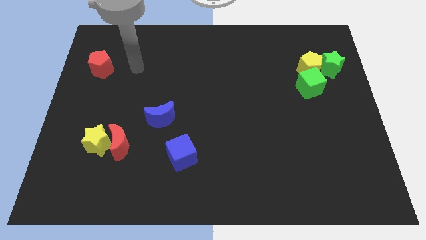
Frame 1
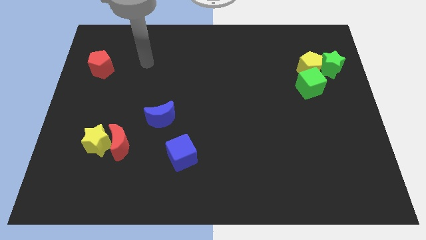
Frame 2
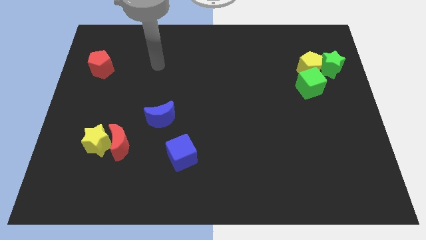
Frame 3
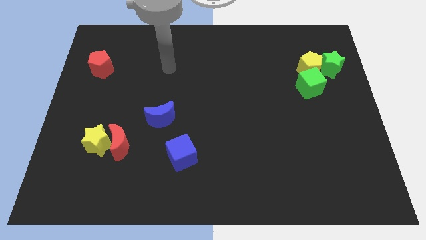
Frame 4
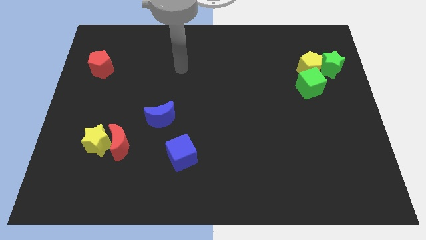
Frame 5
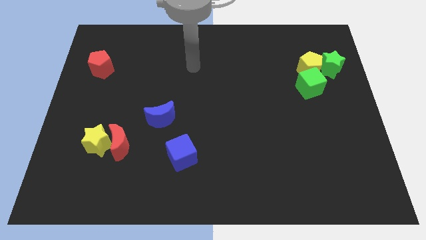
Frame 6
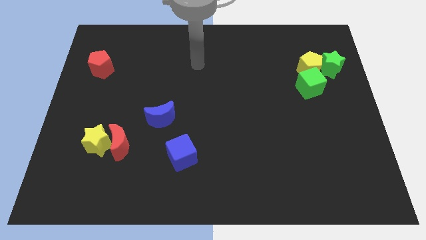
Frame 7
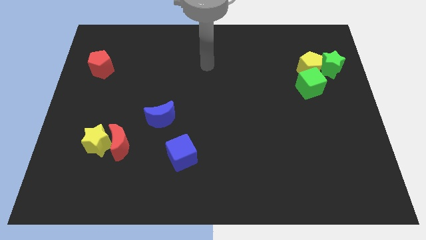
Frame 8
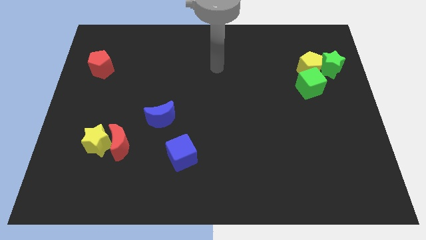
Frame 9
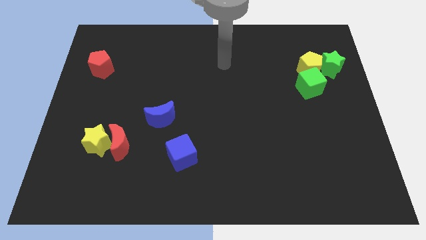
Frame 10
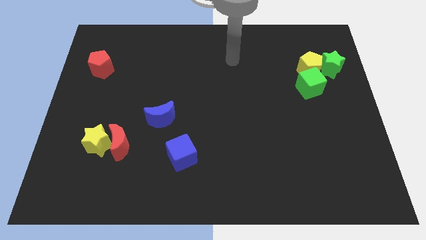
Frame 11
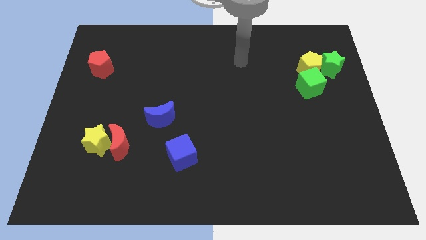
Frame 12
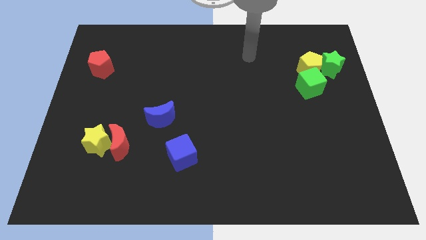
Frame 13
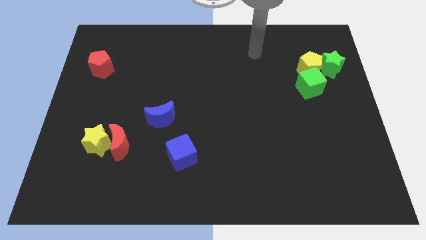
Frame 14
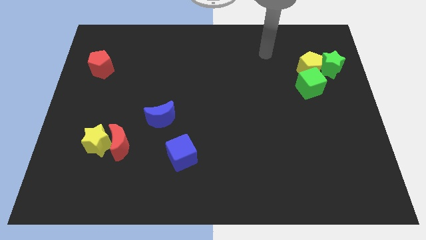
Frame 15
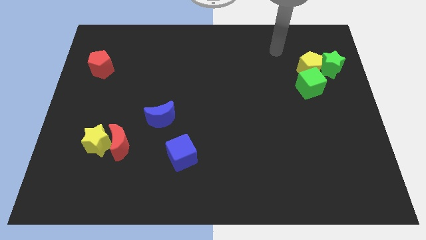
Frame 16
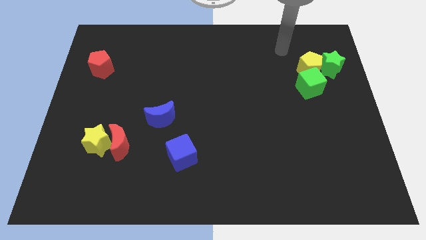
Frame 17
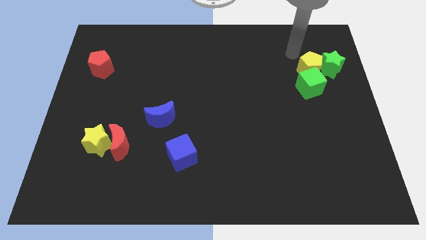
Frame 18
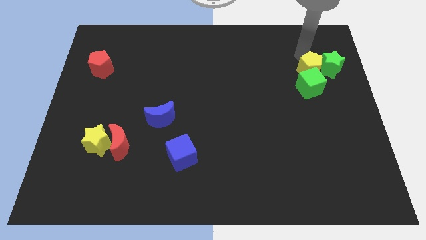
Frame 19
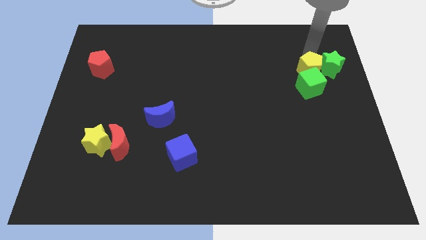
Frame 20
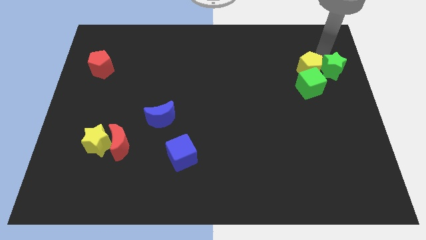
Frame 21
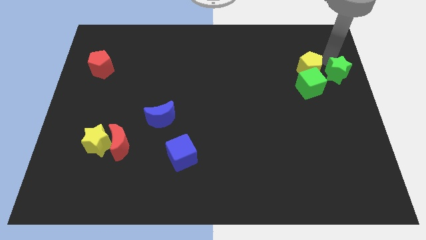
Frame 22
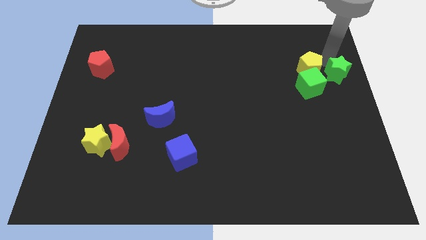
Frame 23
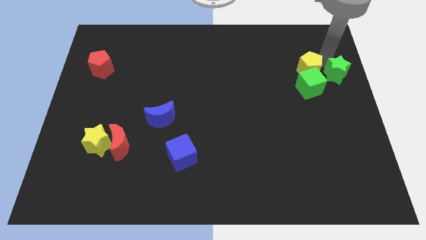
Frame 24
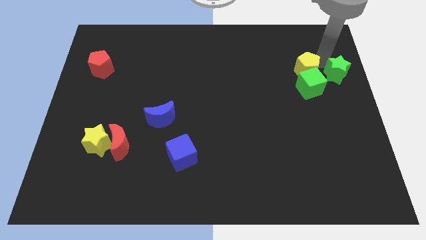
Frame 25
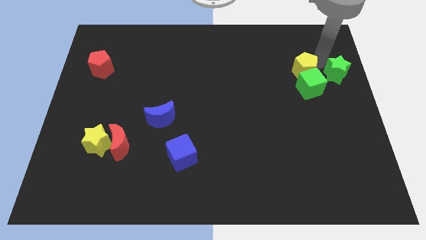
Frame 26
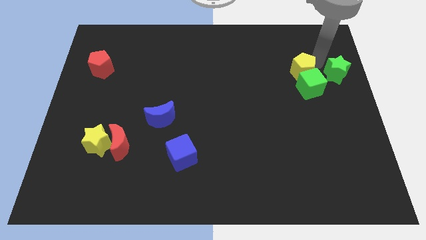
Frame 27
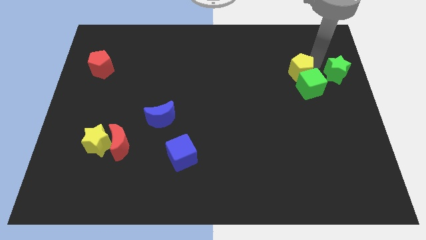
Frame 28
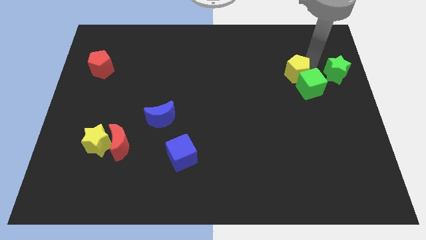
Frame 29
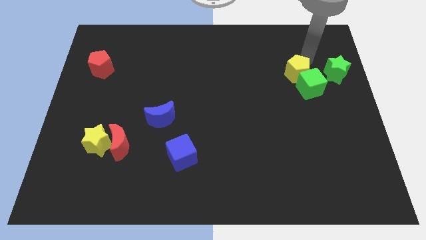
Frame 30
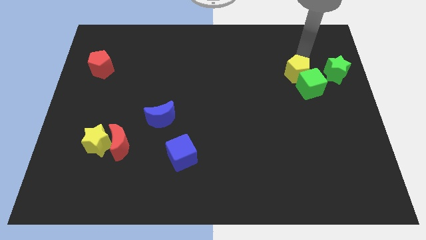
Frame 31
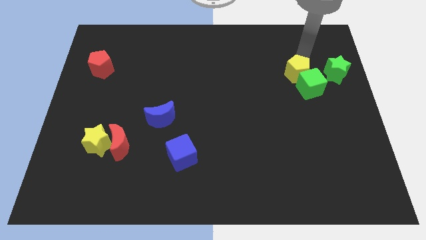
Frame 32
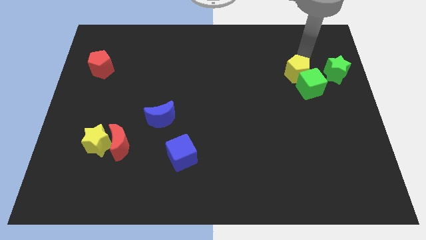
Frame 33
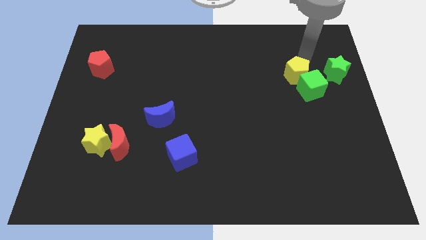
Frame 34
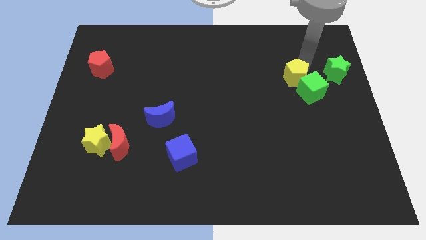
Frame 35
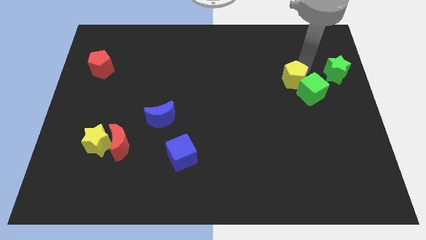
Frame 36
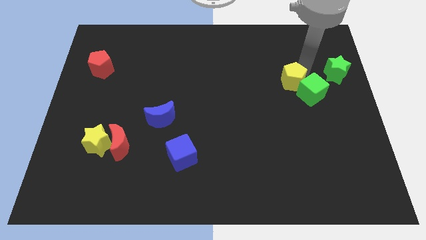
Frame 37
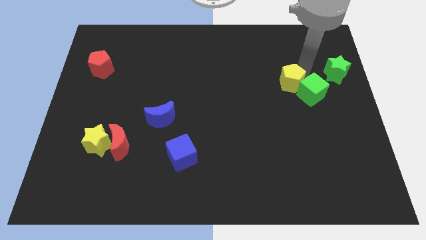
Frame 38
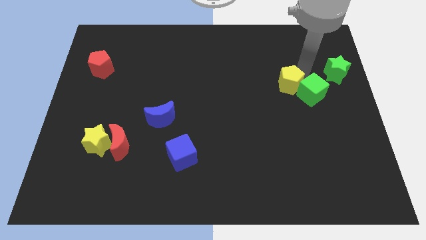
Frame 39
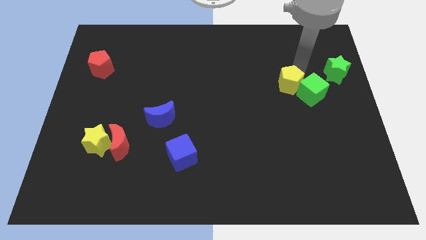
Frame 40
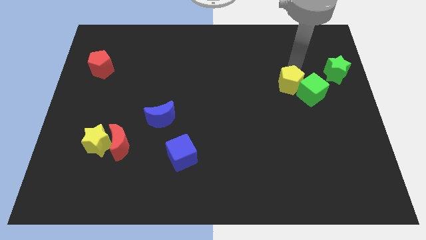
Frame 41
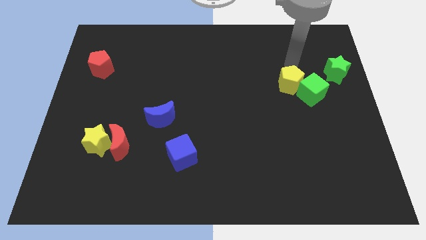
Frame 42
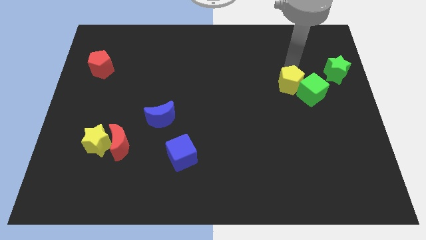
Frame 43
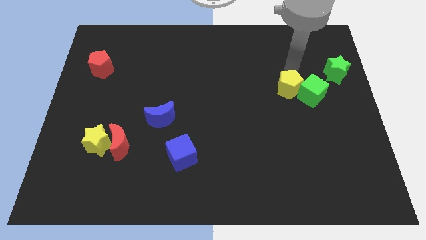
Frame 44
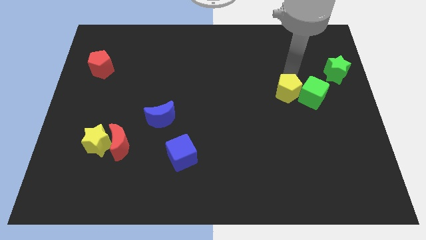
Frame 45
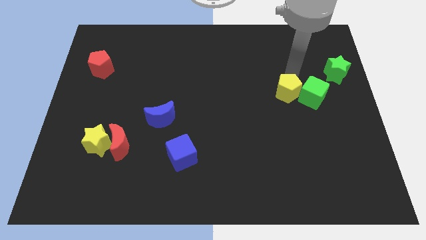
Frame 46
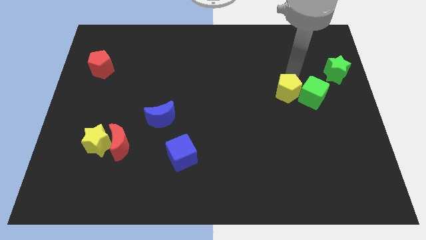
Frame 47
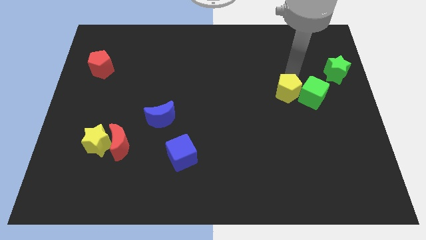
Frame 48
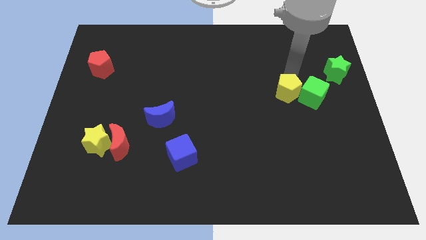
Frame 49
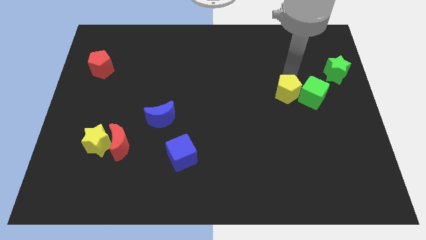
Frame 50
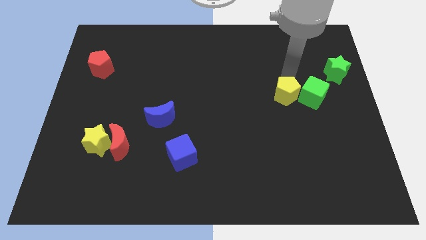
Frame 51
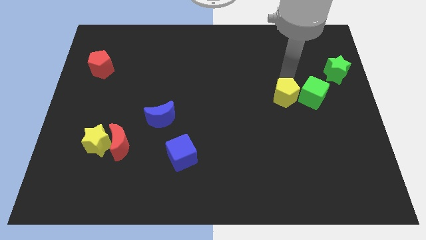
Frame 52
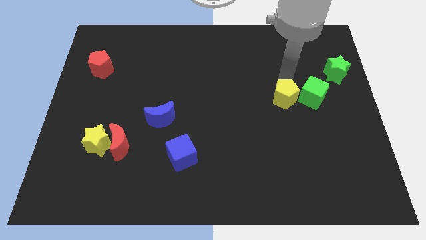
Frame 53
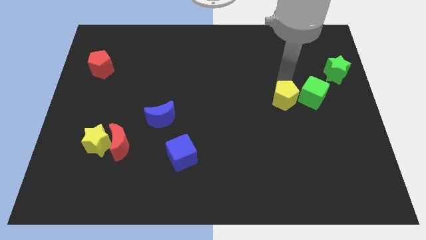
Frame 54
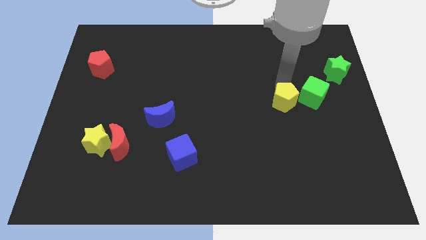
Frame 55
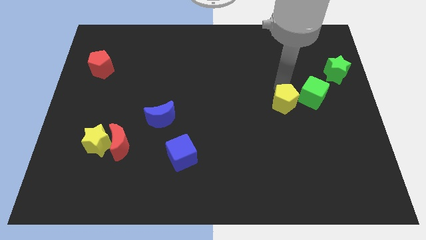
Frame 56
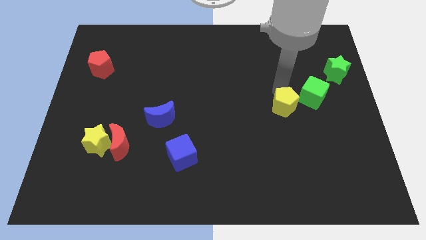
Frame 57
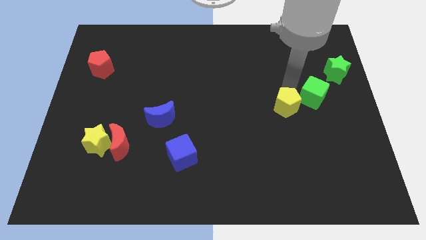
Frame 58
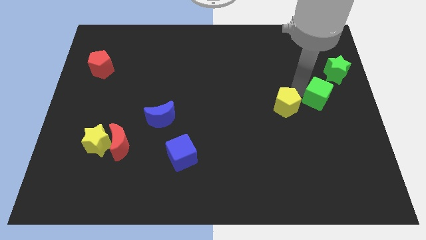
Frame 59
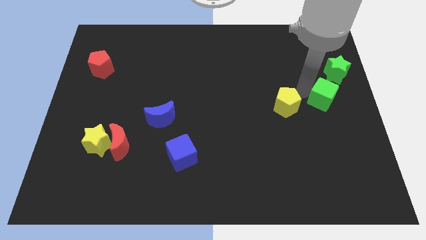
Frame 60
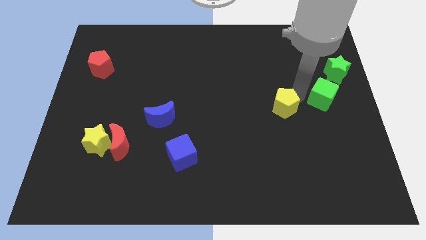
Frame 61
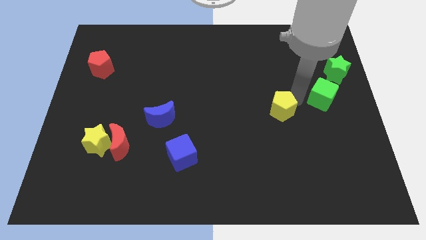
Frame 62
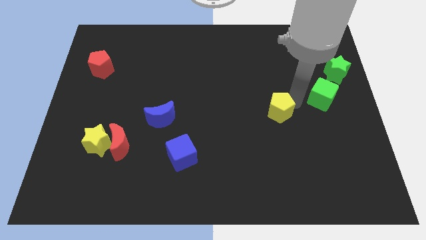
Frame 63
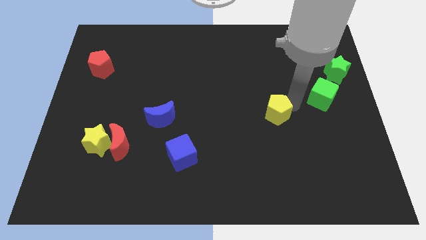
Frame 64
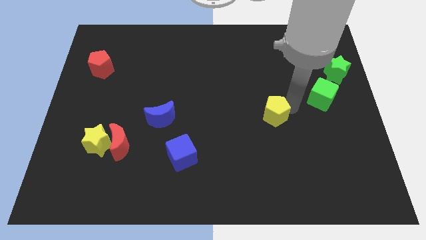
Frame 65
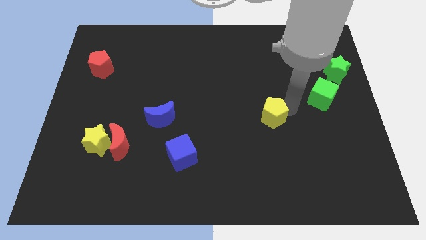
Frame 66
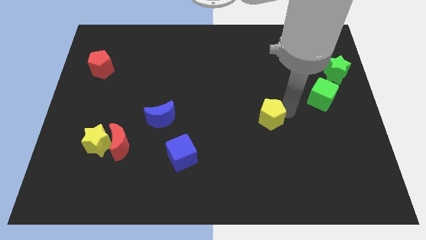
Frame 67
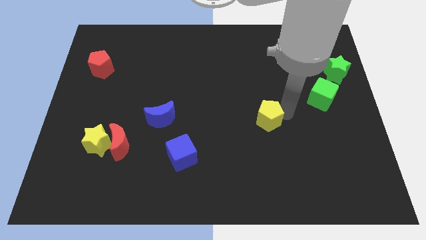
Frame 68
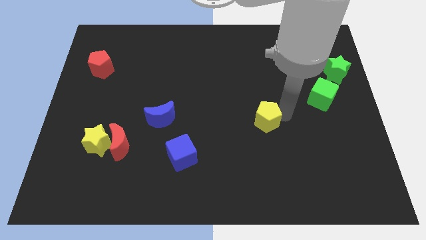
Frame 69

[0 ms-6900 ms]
slide the yellow pentagon downwards and left diagonally

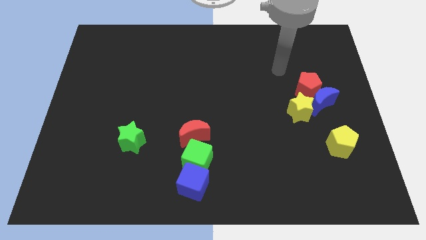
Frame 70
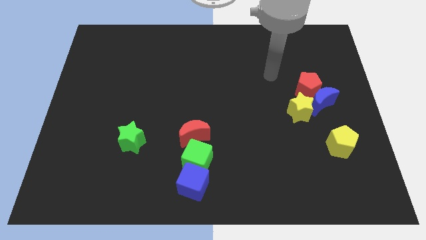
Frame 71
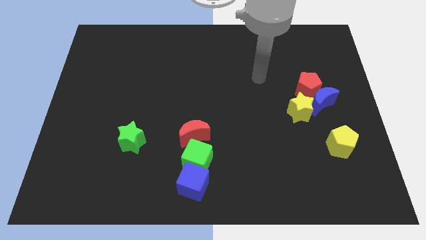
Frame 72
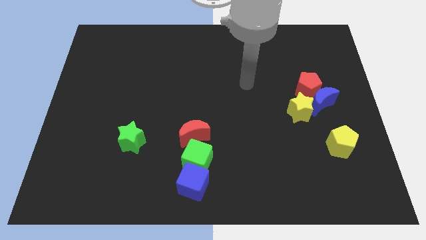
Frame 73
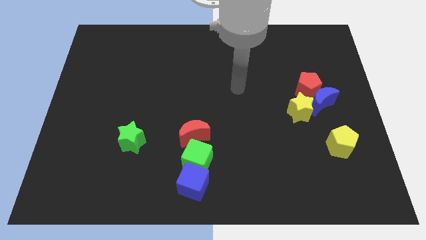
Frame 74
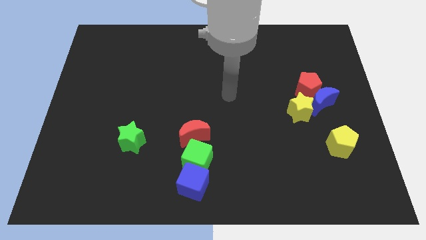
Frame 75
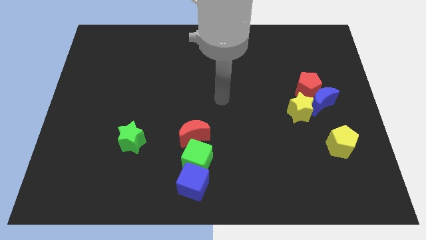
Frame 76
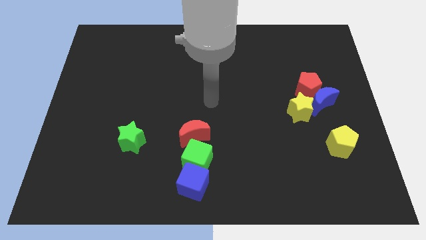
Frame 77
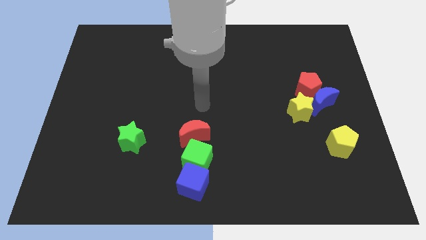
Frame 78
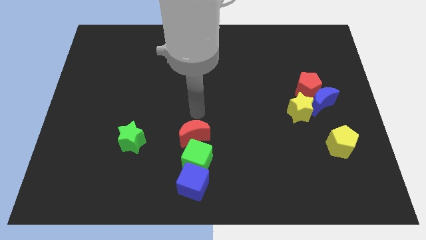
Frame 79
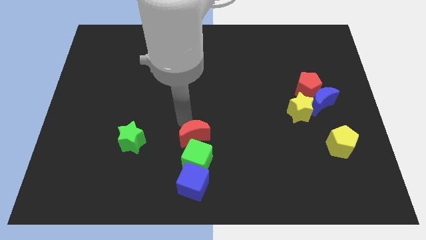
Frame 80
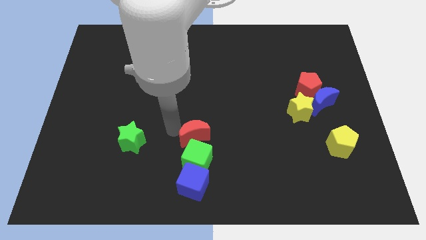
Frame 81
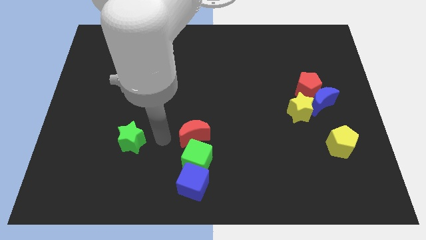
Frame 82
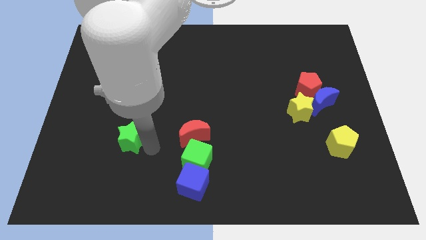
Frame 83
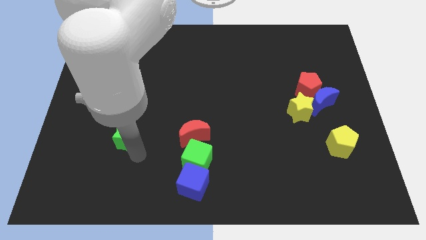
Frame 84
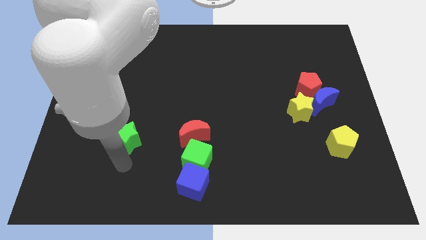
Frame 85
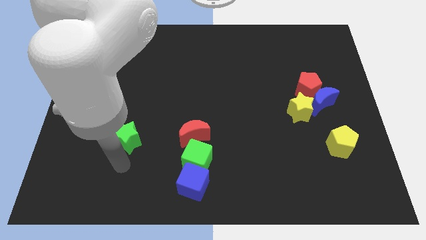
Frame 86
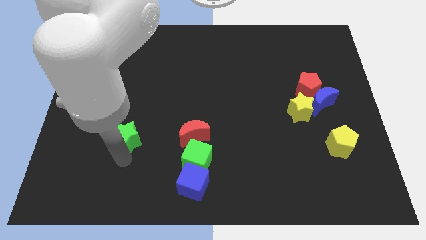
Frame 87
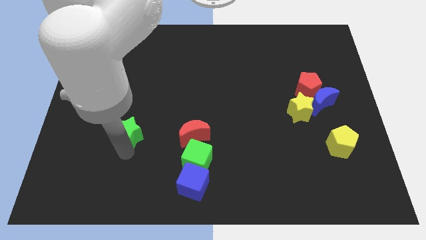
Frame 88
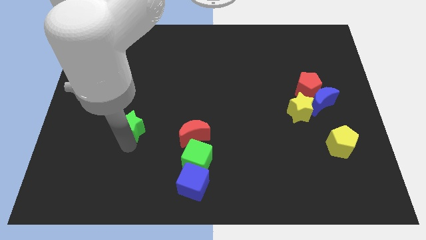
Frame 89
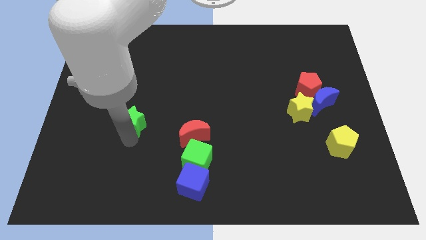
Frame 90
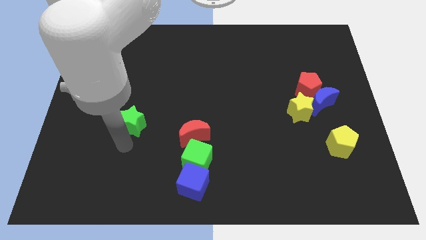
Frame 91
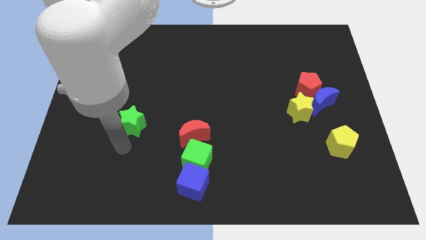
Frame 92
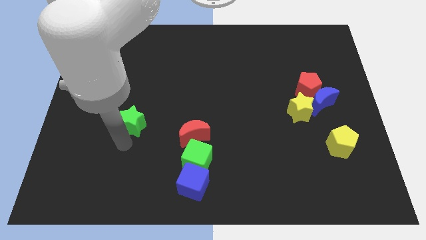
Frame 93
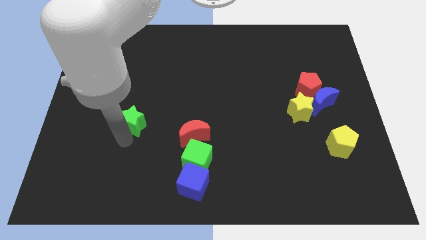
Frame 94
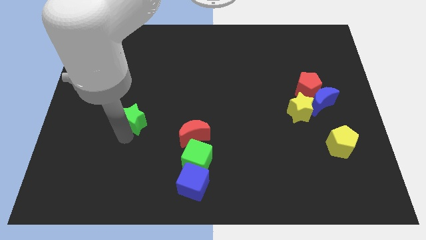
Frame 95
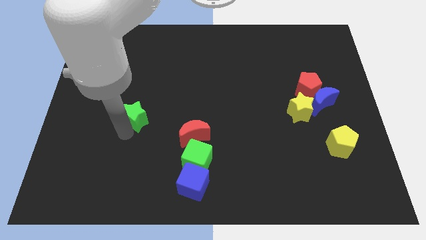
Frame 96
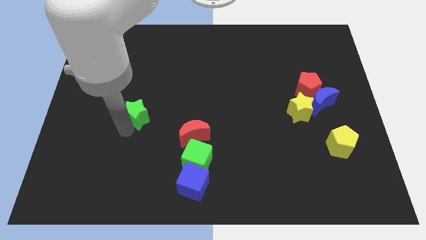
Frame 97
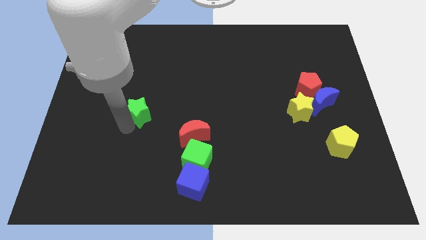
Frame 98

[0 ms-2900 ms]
move the green star up a little
